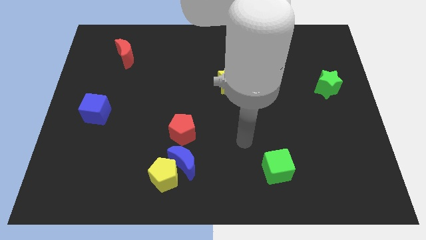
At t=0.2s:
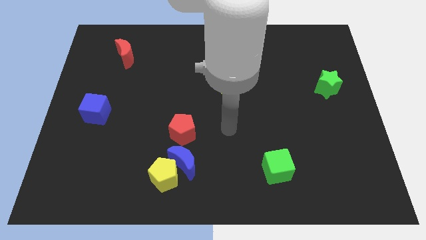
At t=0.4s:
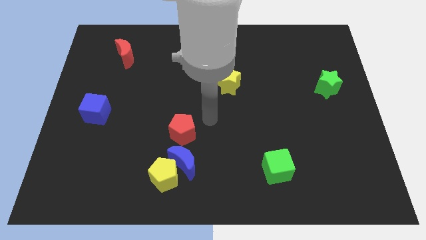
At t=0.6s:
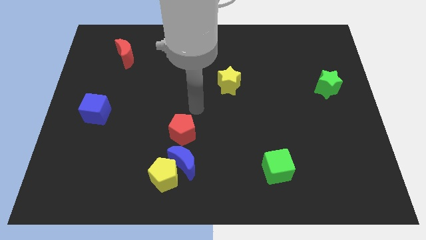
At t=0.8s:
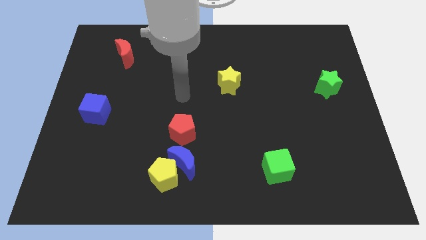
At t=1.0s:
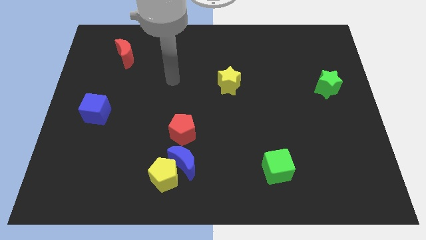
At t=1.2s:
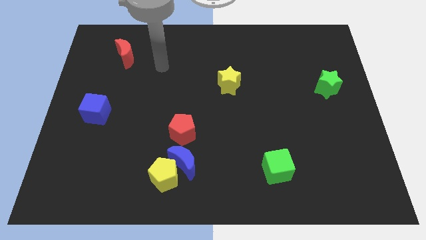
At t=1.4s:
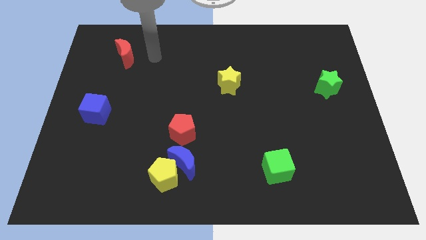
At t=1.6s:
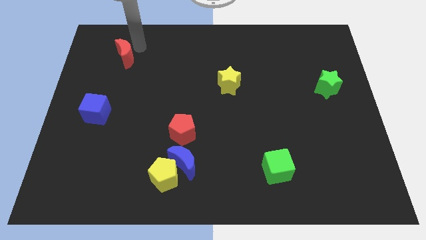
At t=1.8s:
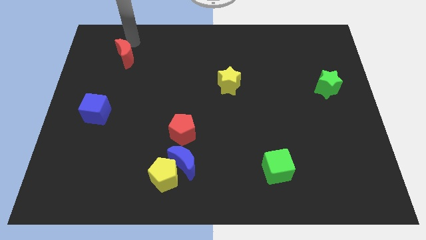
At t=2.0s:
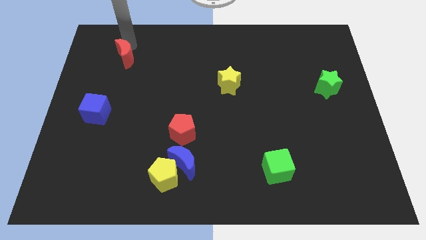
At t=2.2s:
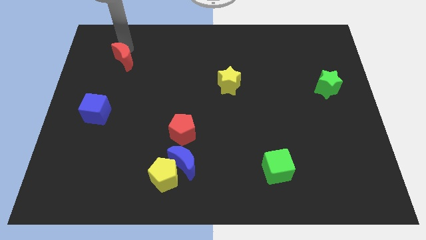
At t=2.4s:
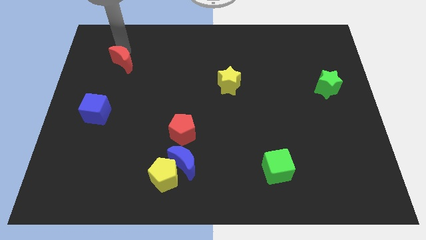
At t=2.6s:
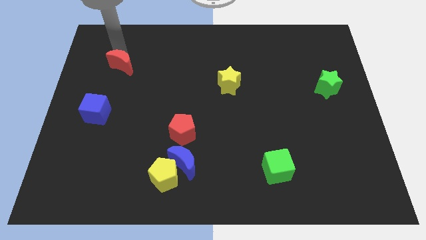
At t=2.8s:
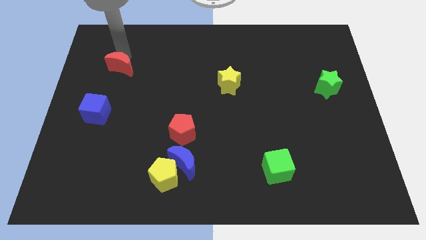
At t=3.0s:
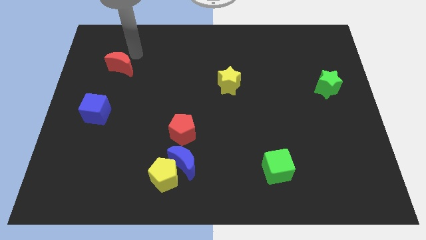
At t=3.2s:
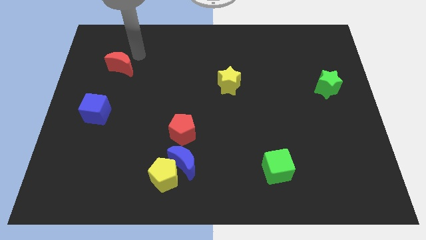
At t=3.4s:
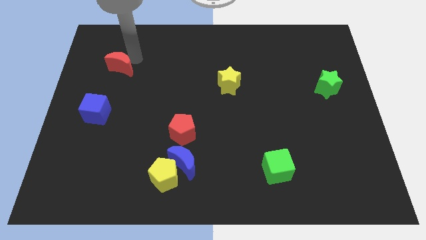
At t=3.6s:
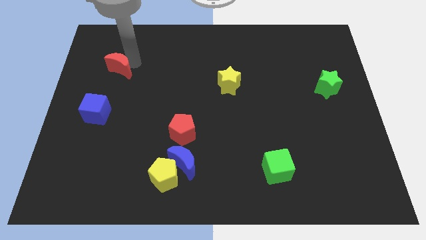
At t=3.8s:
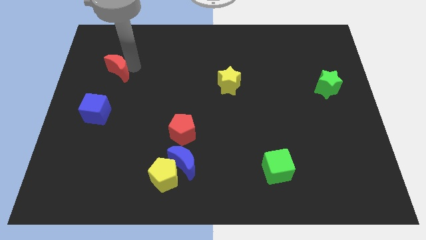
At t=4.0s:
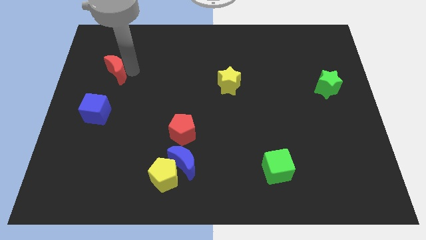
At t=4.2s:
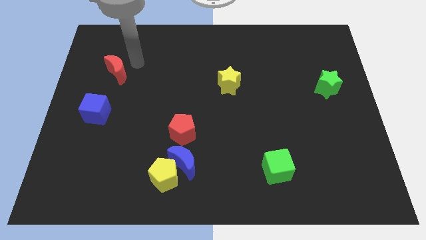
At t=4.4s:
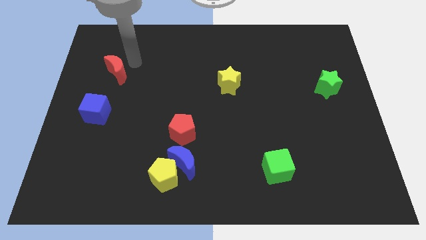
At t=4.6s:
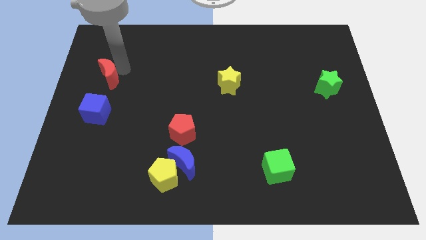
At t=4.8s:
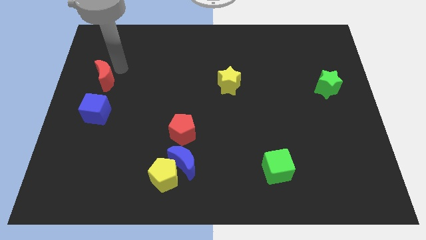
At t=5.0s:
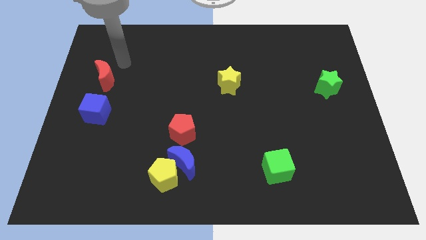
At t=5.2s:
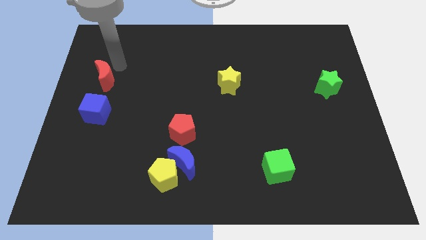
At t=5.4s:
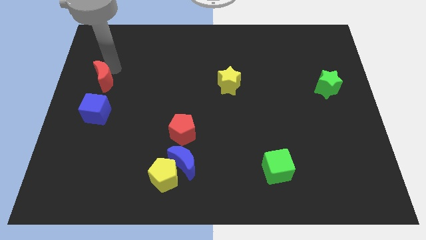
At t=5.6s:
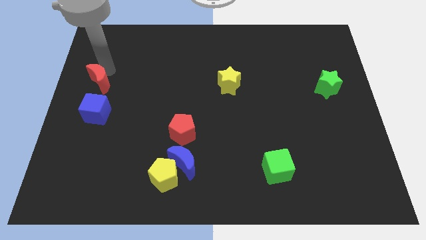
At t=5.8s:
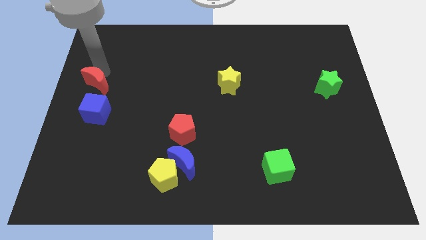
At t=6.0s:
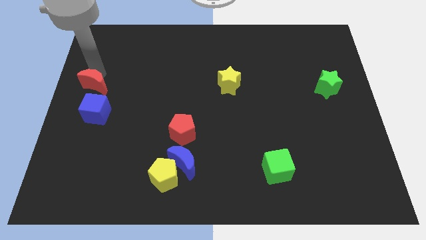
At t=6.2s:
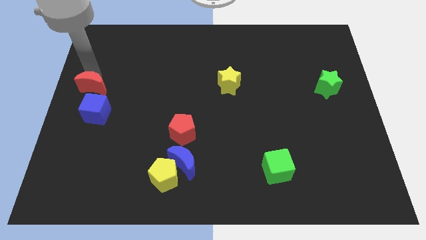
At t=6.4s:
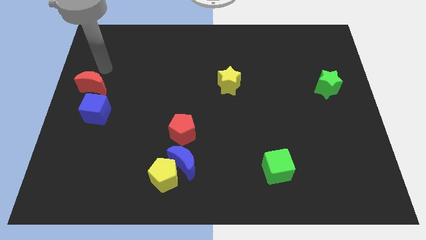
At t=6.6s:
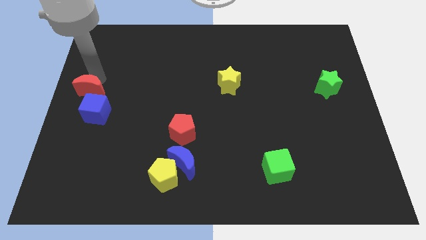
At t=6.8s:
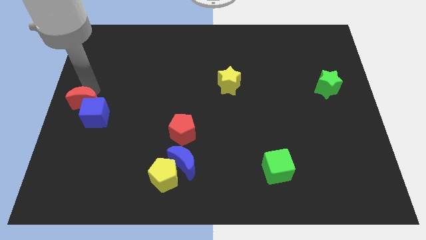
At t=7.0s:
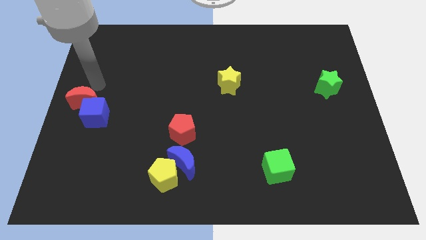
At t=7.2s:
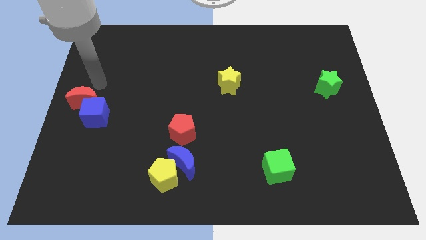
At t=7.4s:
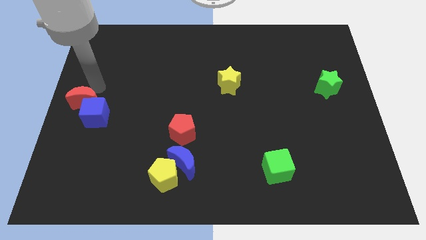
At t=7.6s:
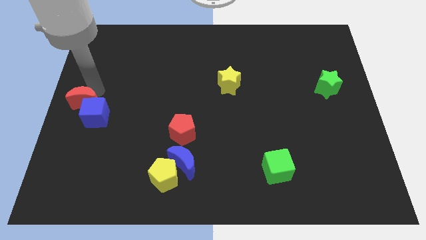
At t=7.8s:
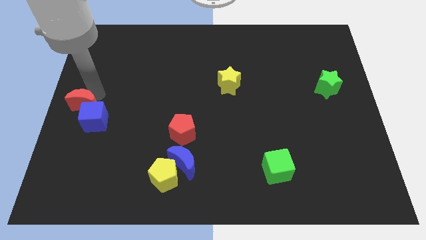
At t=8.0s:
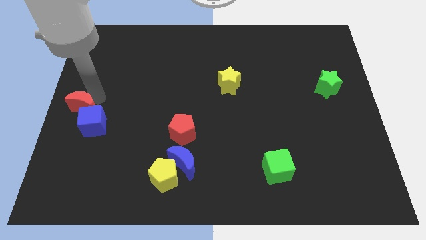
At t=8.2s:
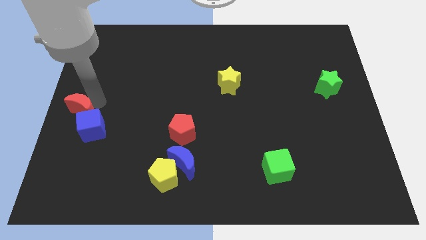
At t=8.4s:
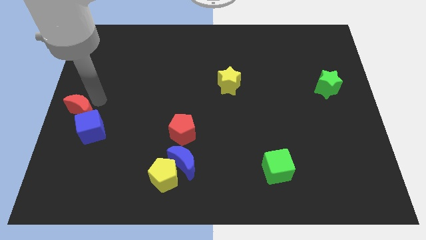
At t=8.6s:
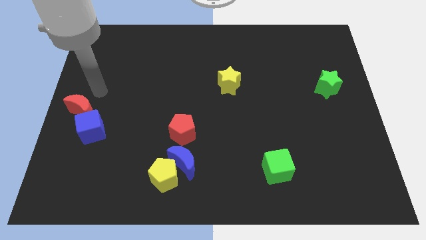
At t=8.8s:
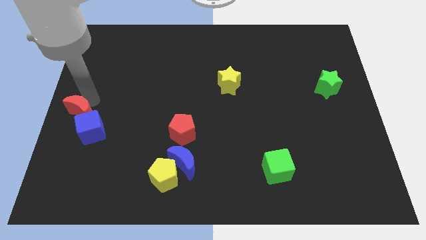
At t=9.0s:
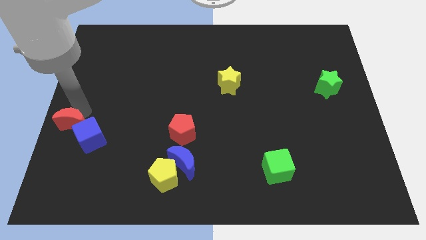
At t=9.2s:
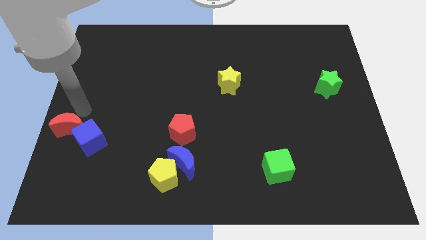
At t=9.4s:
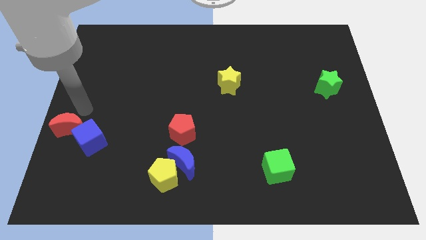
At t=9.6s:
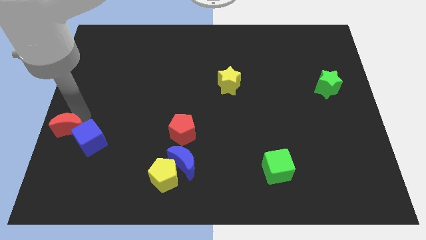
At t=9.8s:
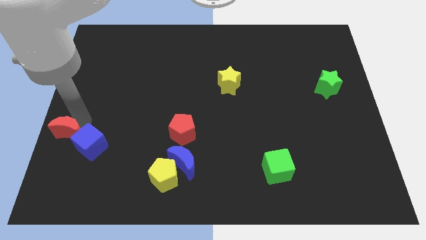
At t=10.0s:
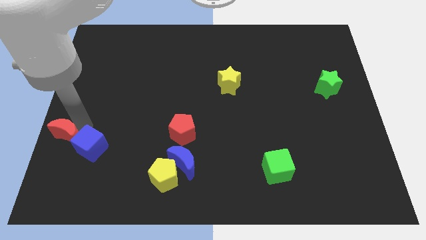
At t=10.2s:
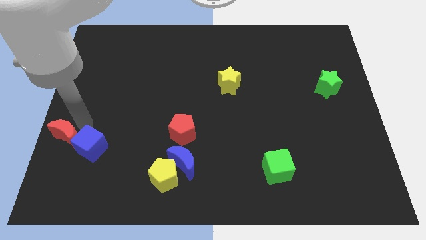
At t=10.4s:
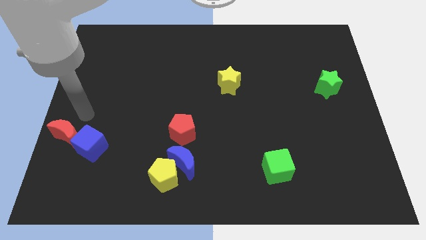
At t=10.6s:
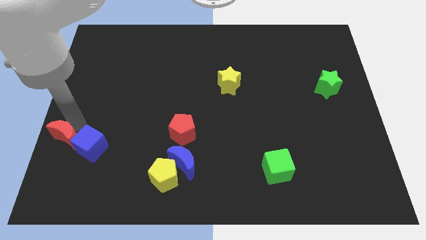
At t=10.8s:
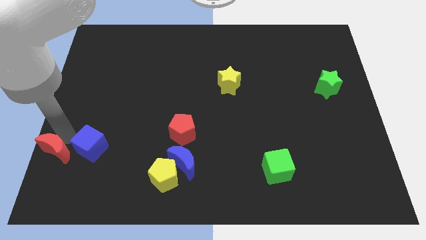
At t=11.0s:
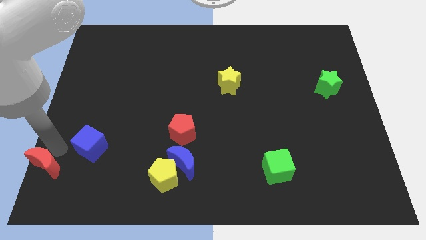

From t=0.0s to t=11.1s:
move the red moon to the lower left corner

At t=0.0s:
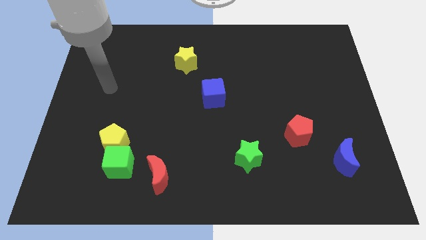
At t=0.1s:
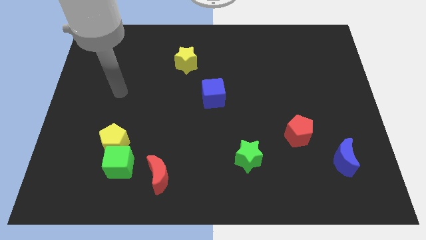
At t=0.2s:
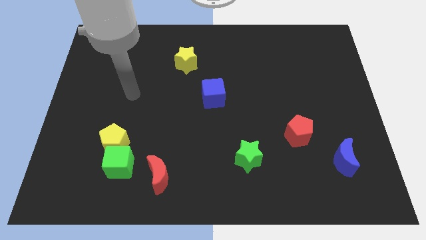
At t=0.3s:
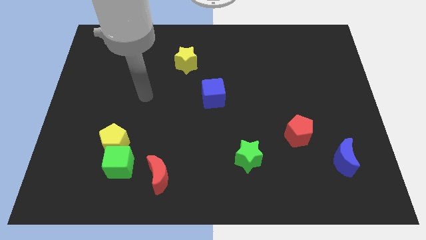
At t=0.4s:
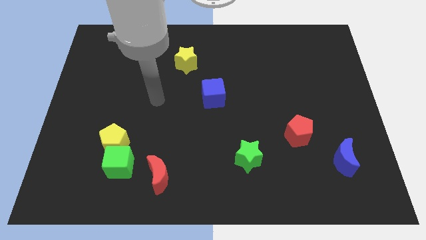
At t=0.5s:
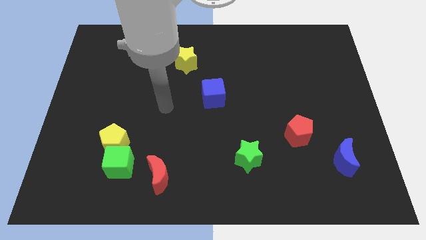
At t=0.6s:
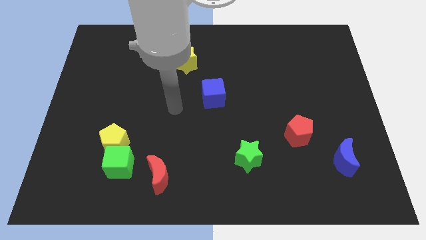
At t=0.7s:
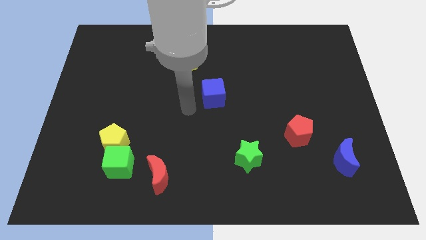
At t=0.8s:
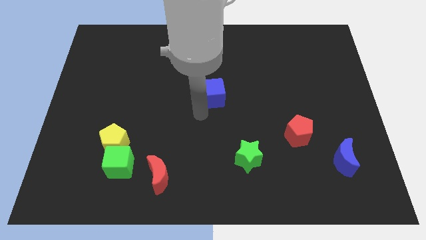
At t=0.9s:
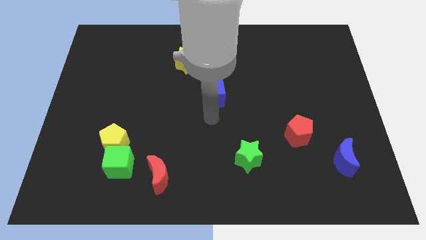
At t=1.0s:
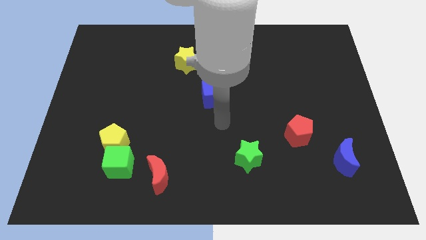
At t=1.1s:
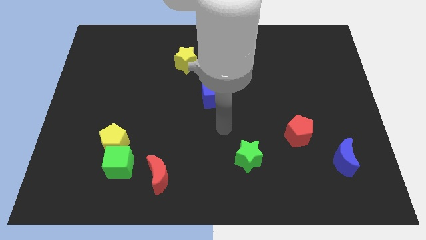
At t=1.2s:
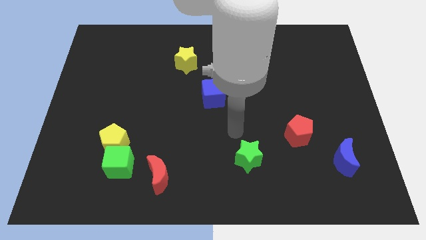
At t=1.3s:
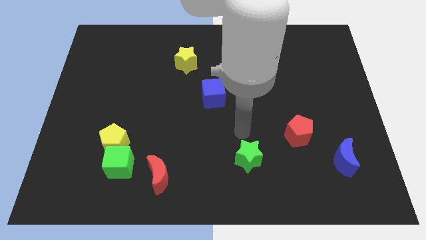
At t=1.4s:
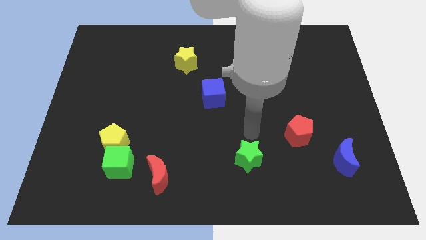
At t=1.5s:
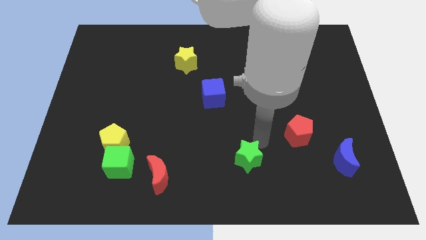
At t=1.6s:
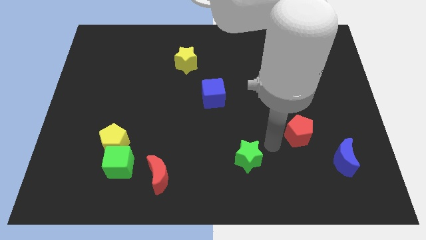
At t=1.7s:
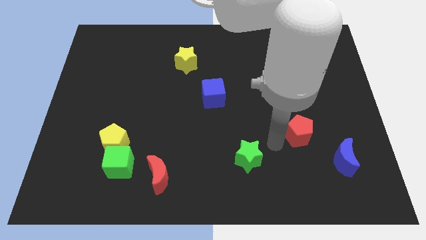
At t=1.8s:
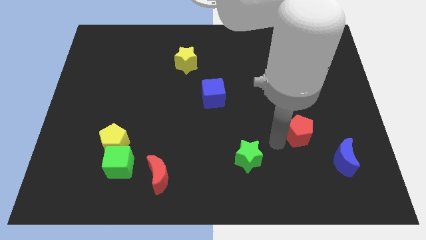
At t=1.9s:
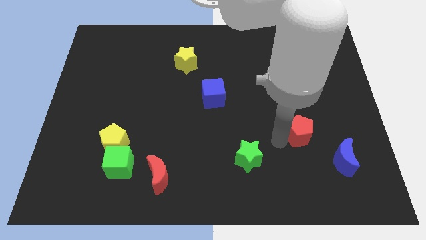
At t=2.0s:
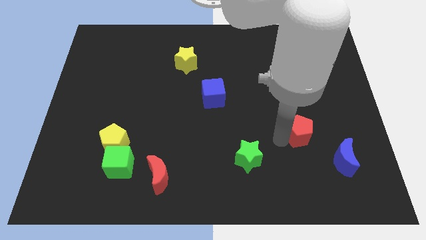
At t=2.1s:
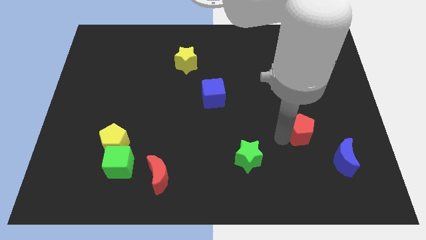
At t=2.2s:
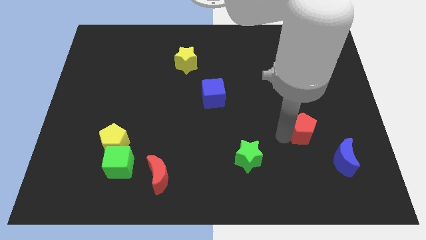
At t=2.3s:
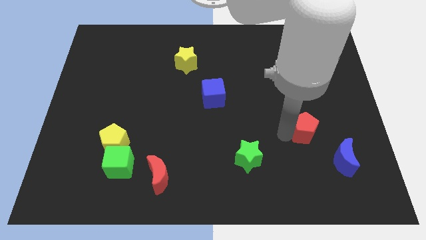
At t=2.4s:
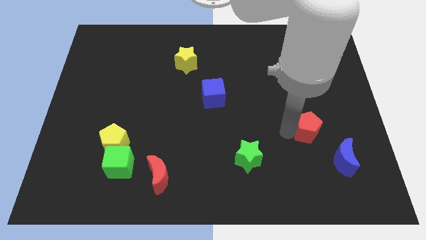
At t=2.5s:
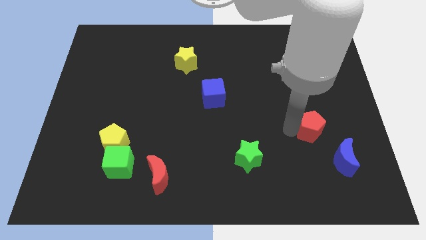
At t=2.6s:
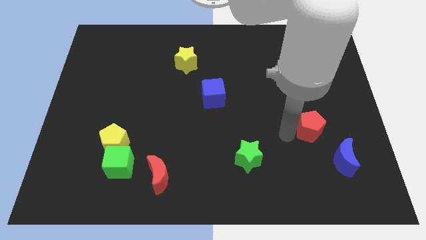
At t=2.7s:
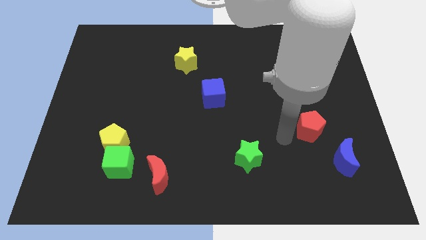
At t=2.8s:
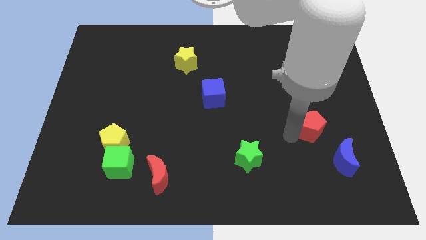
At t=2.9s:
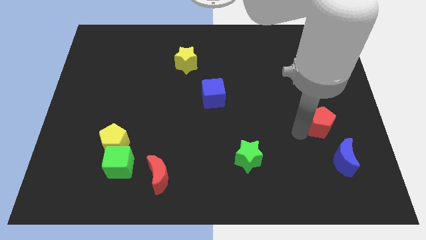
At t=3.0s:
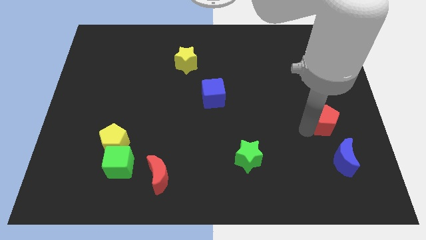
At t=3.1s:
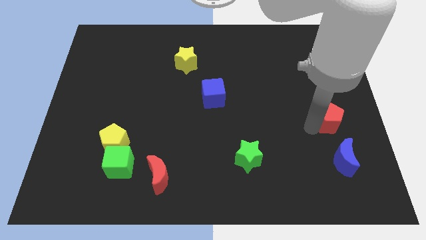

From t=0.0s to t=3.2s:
slide the red pentagon to the right side

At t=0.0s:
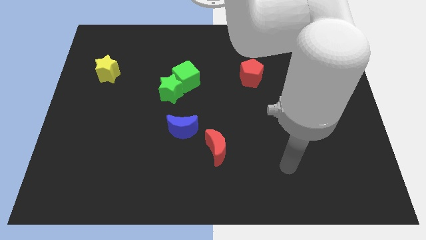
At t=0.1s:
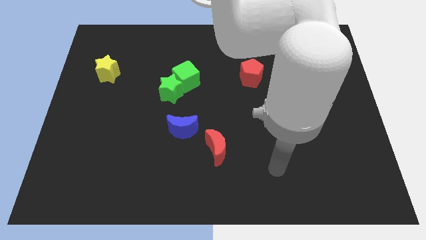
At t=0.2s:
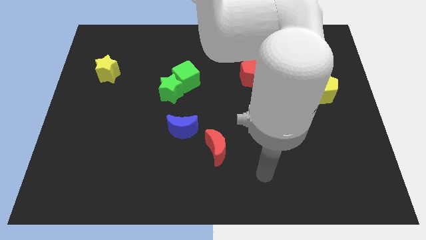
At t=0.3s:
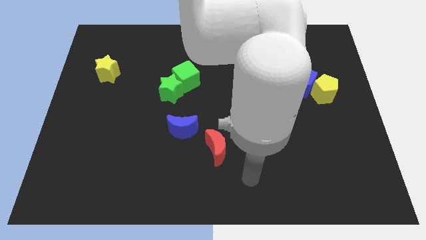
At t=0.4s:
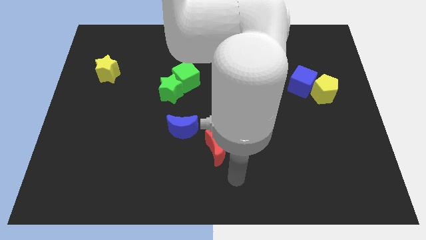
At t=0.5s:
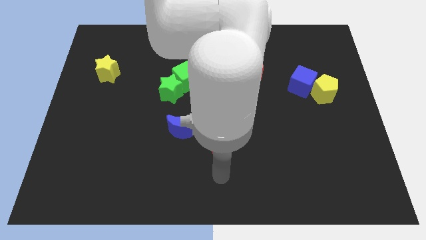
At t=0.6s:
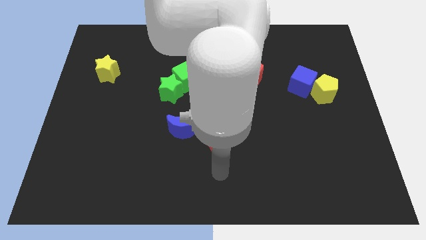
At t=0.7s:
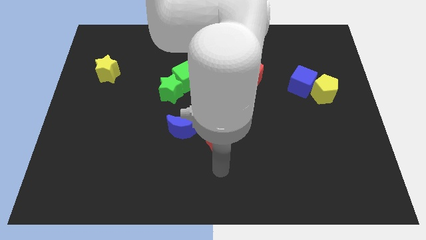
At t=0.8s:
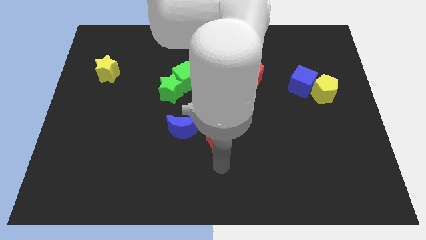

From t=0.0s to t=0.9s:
slide the red moon to the middle
